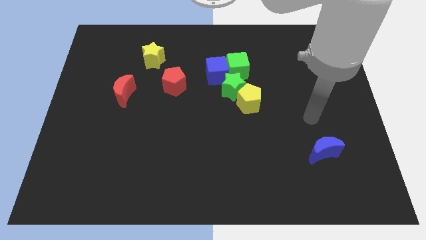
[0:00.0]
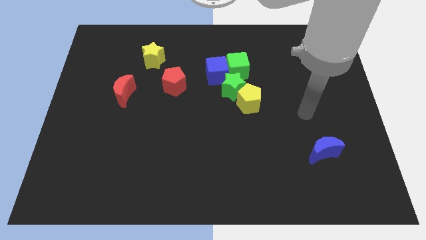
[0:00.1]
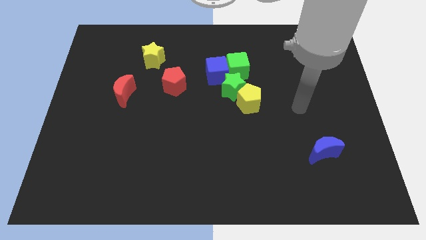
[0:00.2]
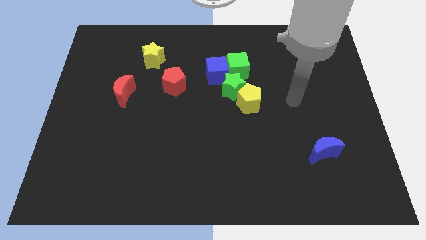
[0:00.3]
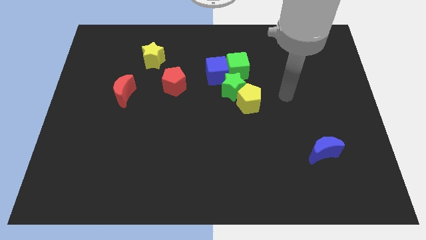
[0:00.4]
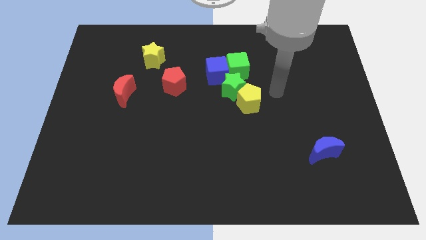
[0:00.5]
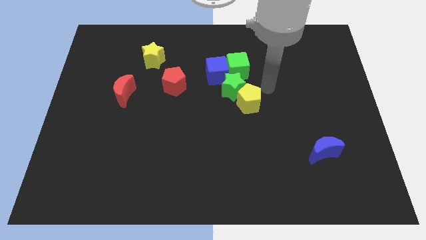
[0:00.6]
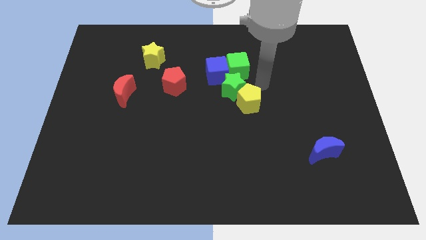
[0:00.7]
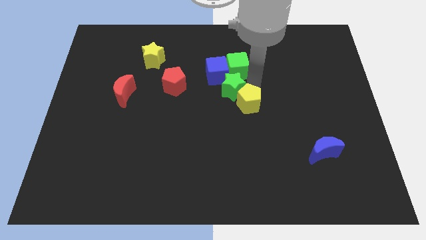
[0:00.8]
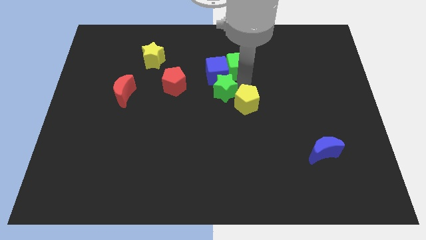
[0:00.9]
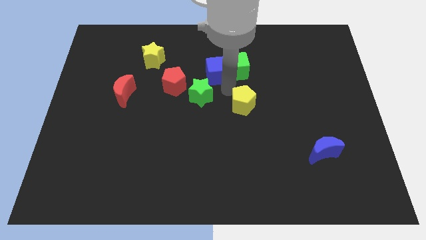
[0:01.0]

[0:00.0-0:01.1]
pull the yellow pentagon apart from the green star

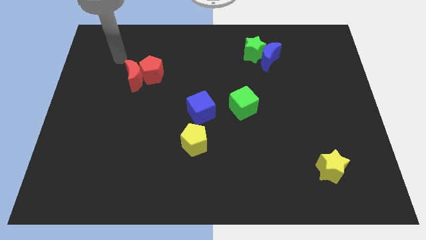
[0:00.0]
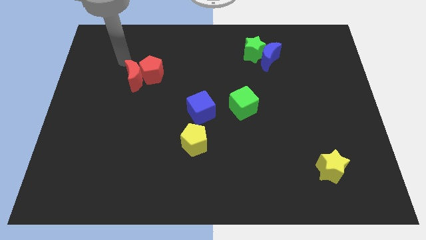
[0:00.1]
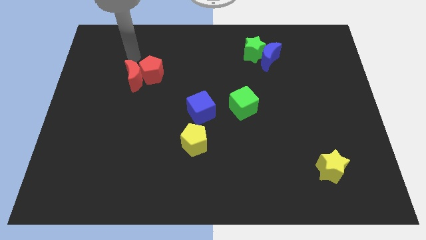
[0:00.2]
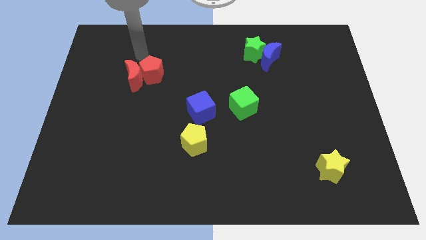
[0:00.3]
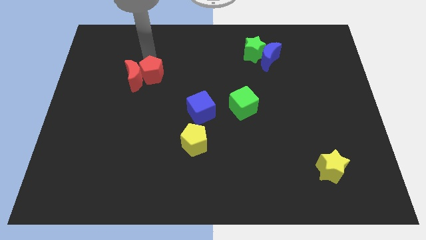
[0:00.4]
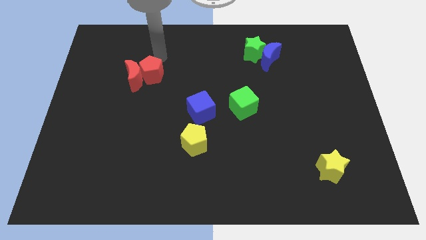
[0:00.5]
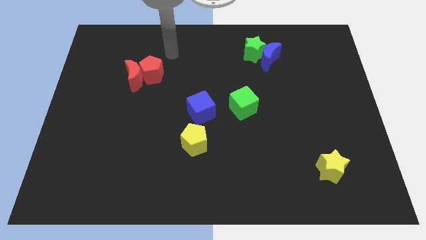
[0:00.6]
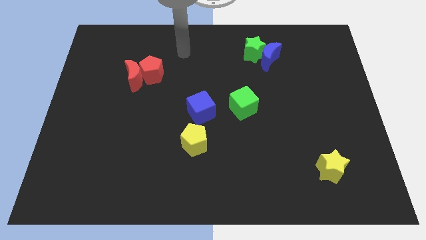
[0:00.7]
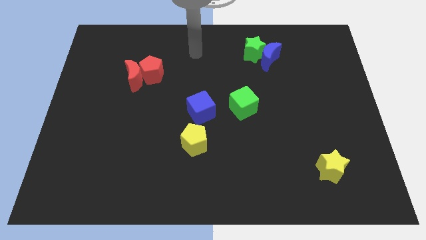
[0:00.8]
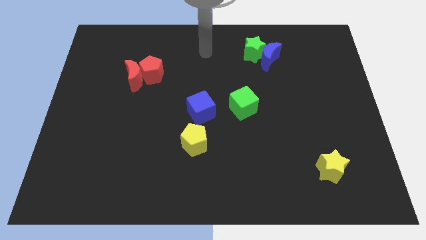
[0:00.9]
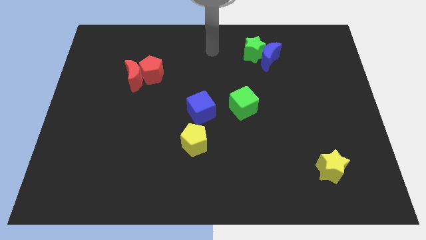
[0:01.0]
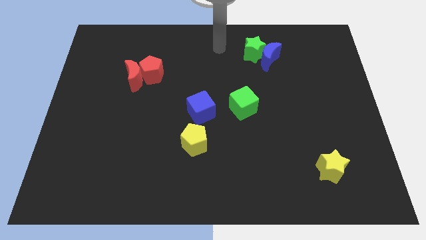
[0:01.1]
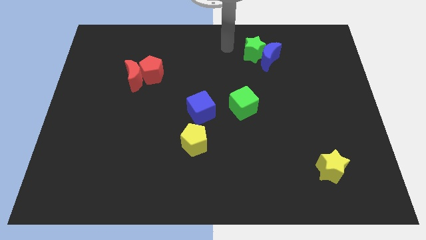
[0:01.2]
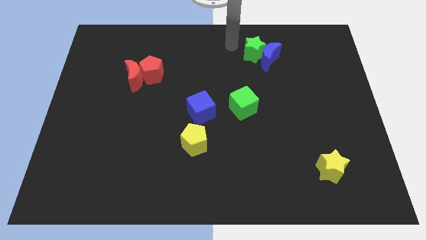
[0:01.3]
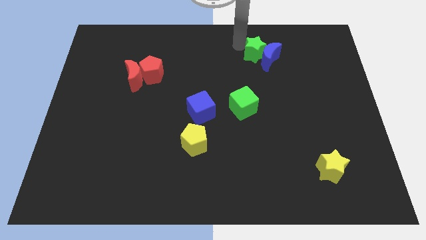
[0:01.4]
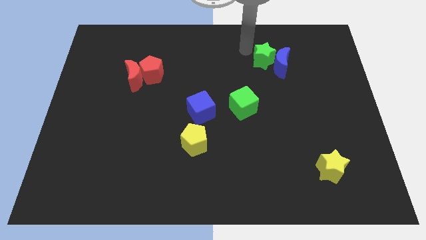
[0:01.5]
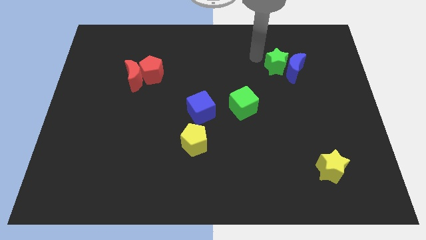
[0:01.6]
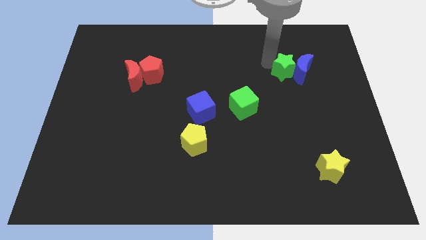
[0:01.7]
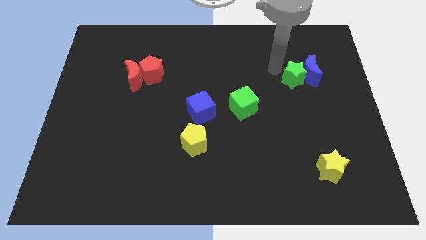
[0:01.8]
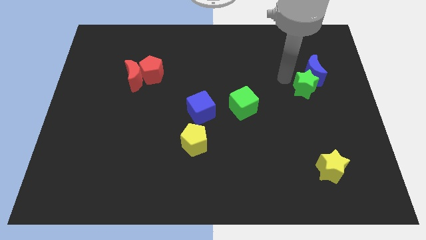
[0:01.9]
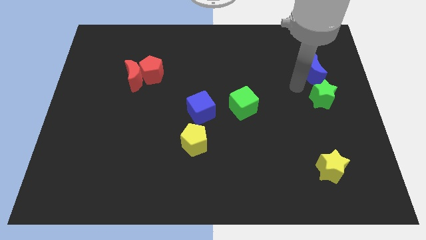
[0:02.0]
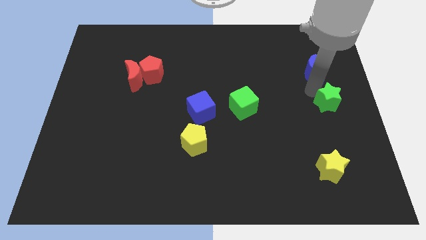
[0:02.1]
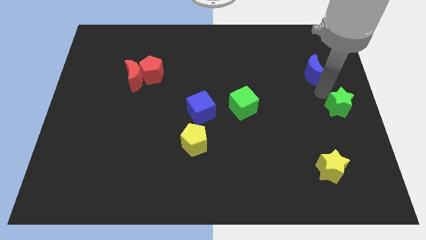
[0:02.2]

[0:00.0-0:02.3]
pull the blue moon apart from the green star

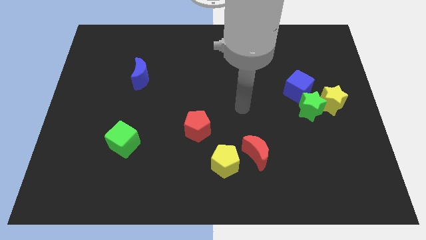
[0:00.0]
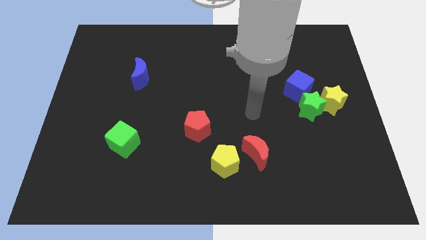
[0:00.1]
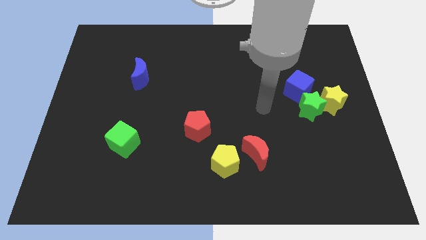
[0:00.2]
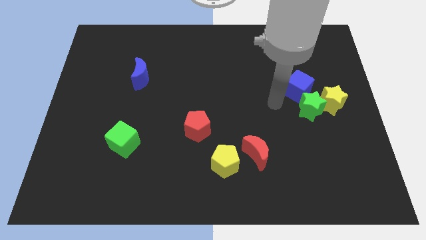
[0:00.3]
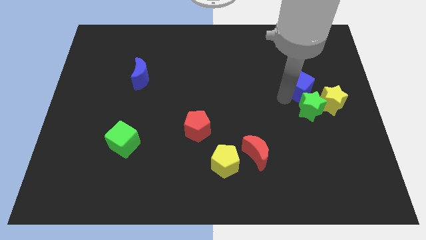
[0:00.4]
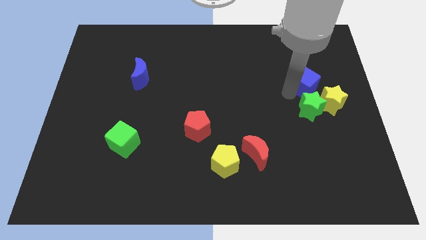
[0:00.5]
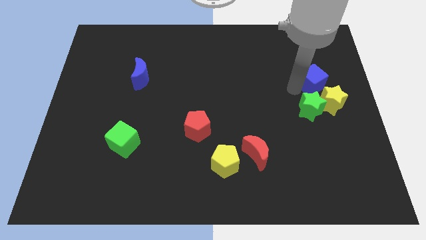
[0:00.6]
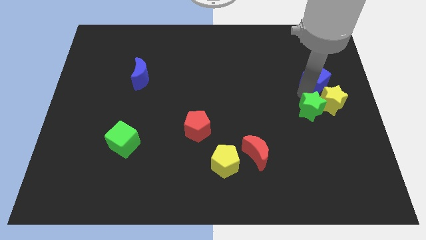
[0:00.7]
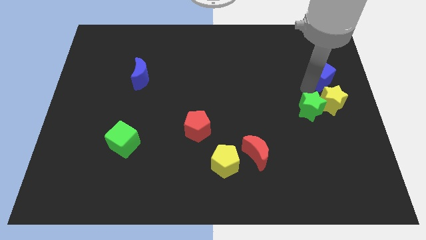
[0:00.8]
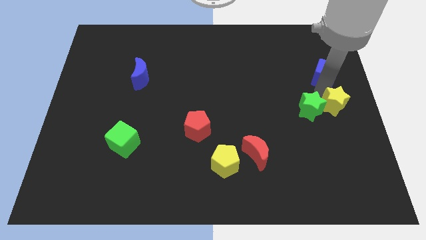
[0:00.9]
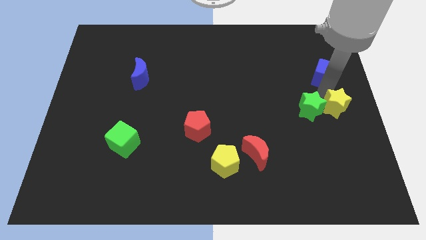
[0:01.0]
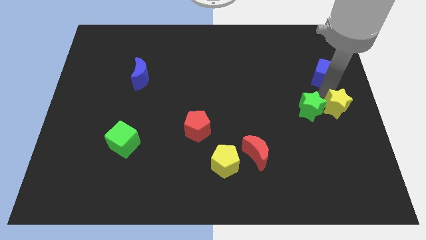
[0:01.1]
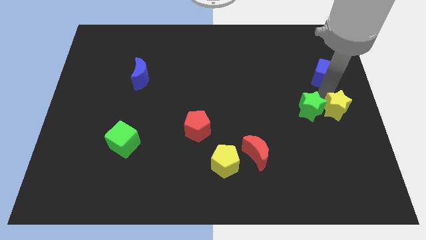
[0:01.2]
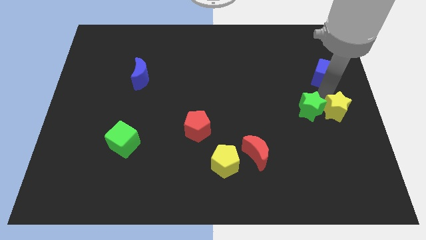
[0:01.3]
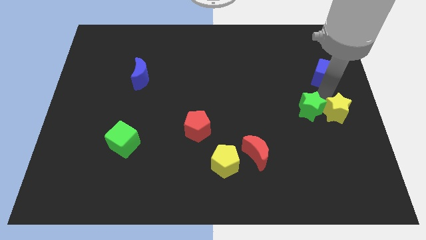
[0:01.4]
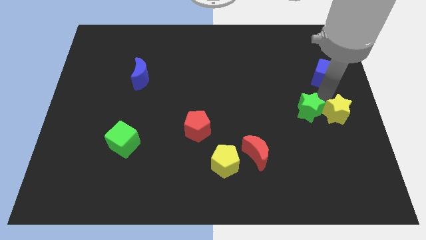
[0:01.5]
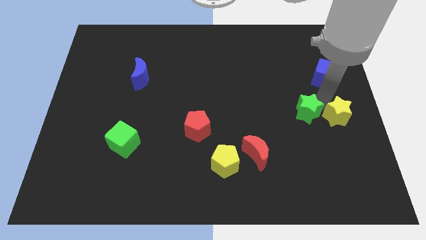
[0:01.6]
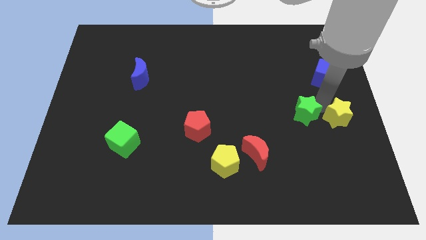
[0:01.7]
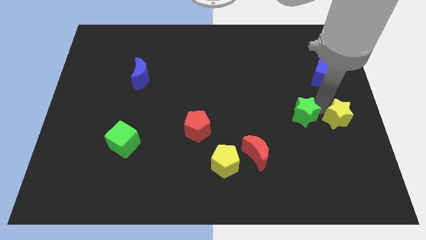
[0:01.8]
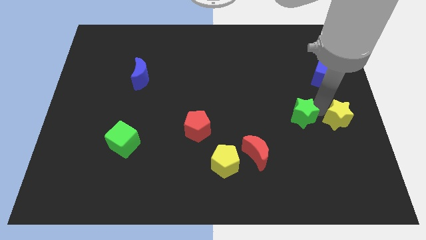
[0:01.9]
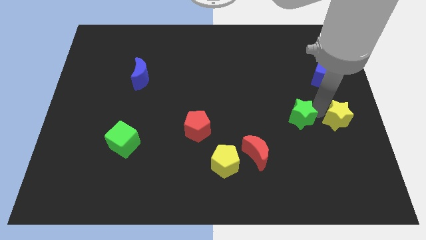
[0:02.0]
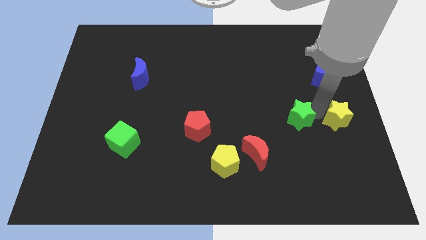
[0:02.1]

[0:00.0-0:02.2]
separate the green star from the yellow star and blue cube

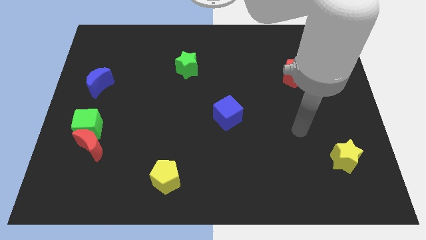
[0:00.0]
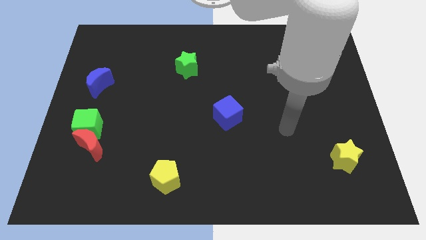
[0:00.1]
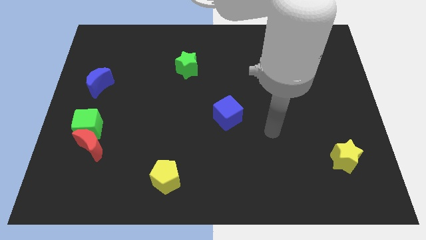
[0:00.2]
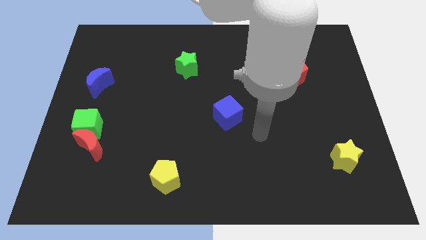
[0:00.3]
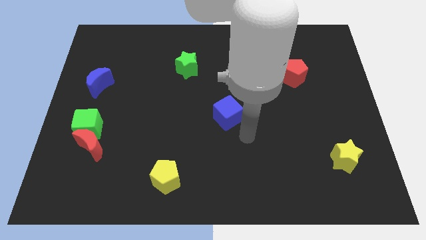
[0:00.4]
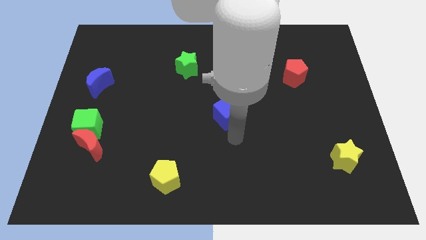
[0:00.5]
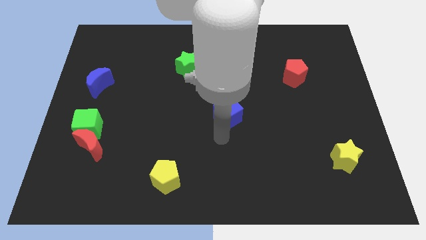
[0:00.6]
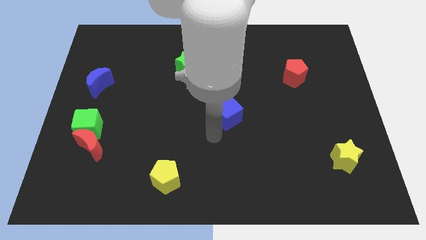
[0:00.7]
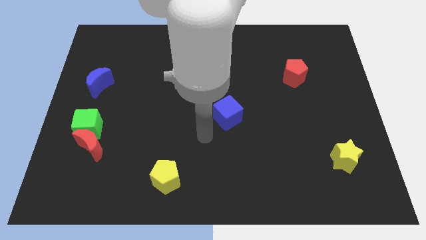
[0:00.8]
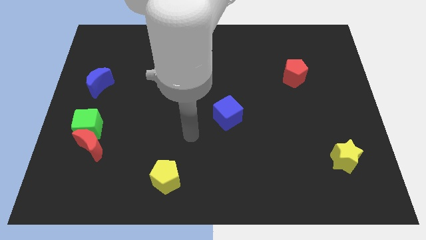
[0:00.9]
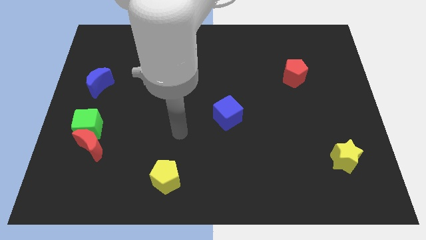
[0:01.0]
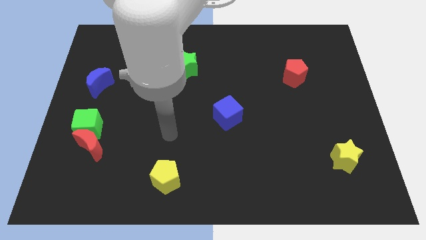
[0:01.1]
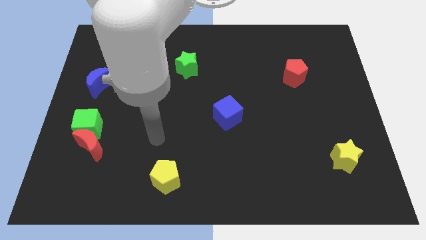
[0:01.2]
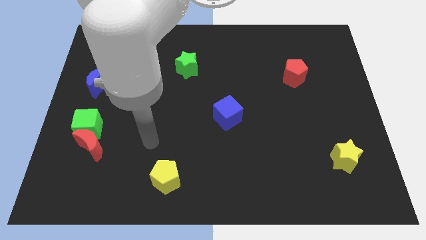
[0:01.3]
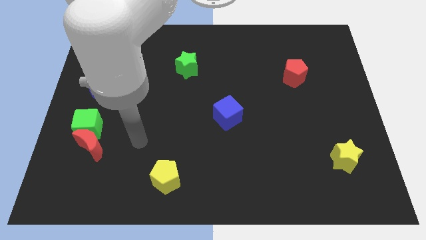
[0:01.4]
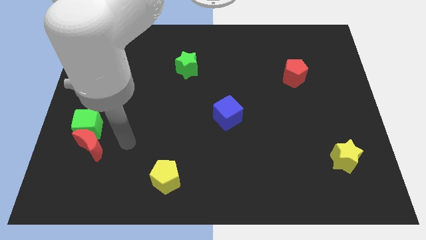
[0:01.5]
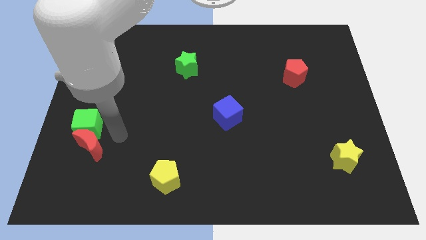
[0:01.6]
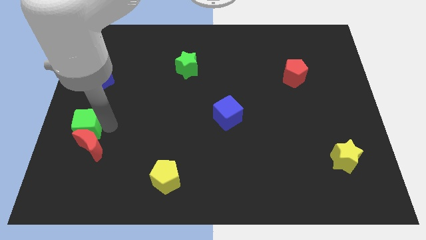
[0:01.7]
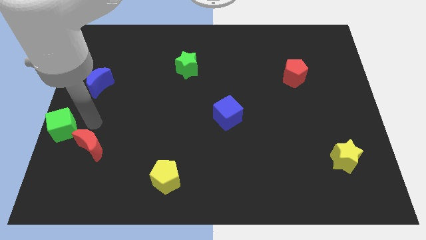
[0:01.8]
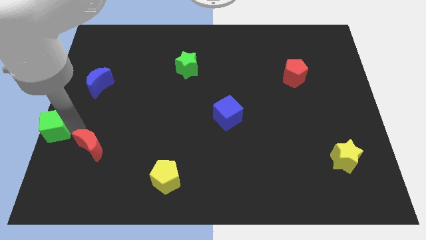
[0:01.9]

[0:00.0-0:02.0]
pull the red moon apart from the green cube

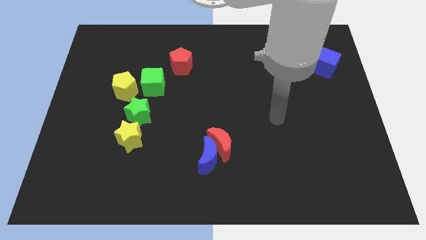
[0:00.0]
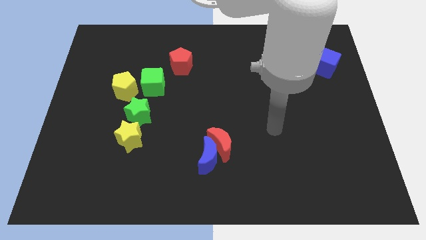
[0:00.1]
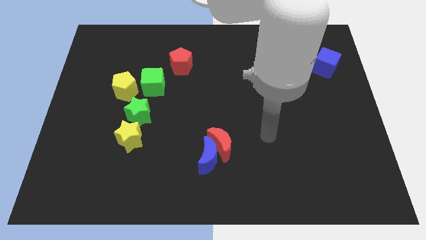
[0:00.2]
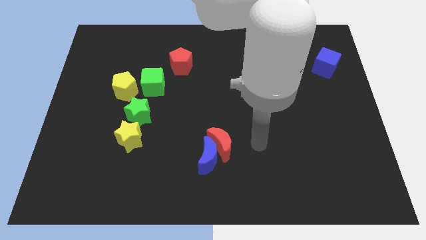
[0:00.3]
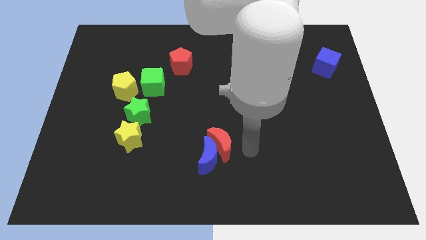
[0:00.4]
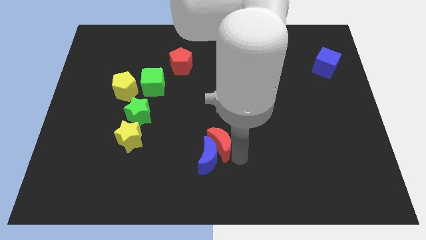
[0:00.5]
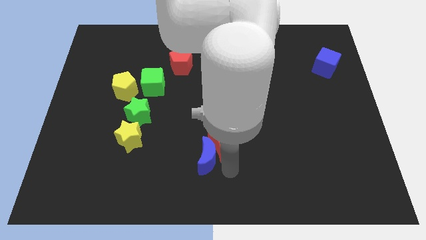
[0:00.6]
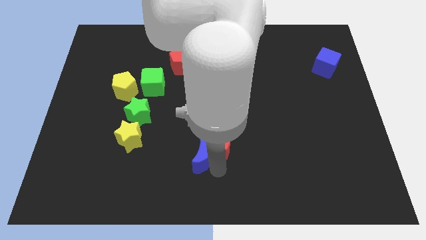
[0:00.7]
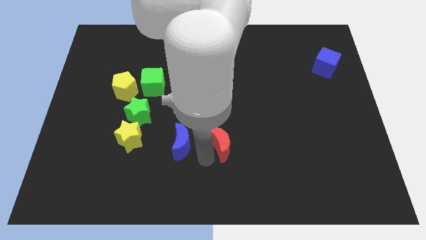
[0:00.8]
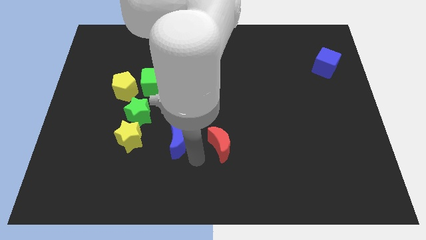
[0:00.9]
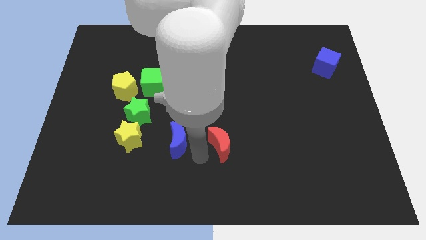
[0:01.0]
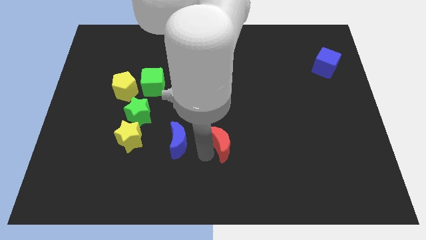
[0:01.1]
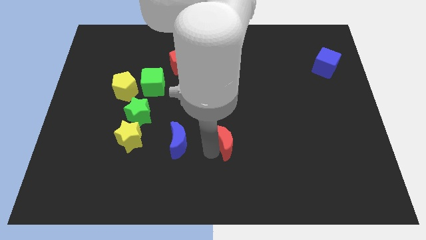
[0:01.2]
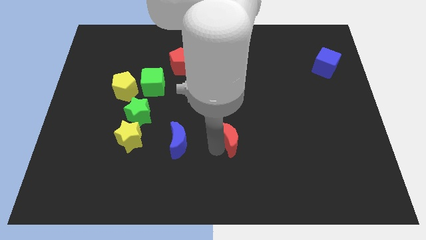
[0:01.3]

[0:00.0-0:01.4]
pull the red moon apart from the blue moon

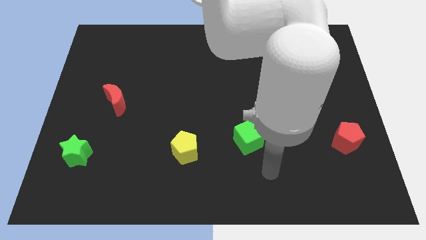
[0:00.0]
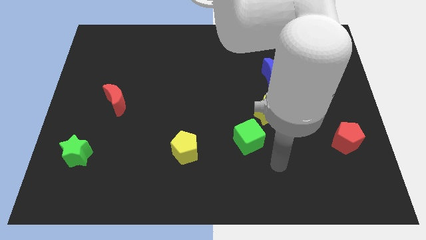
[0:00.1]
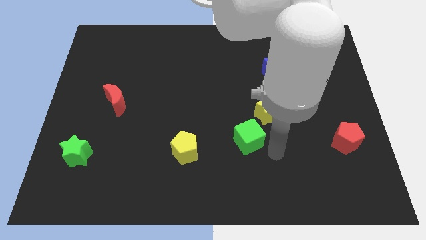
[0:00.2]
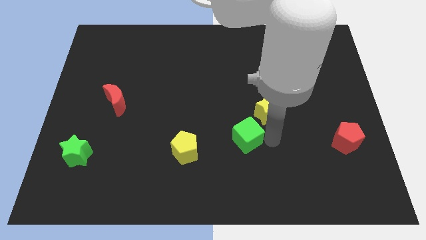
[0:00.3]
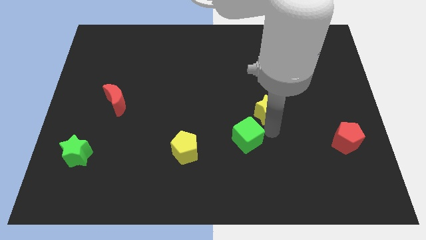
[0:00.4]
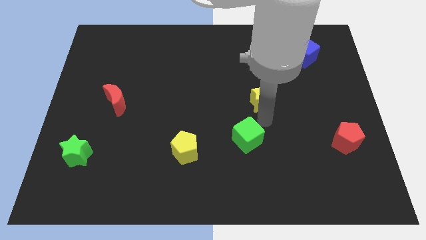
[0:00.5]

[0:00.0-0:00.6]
separate the green cube from the yellow star
